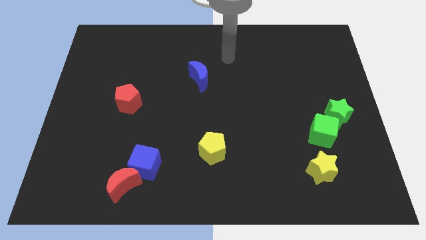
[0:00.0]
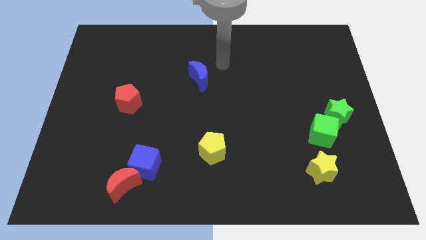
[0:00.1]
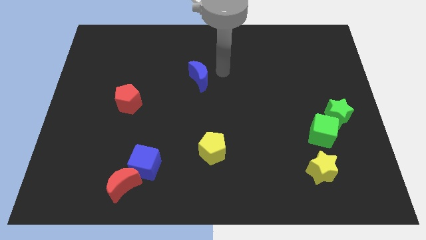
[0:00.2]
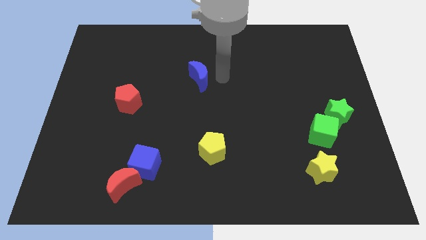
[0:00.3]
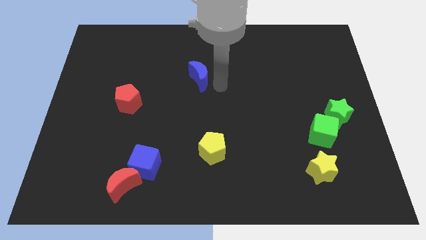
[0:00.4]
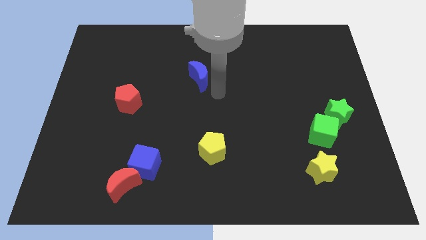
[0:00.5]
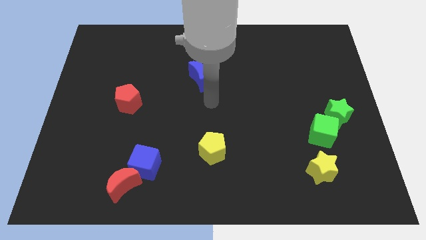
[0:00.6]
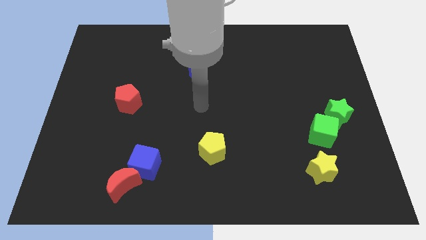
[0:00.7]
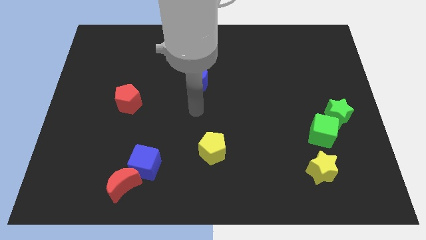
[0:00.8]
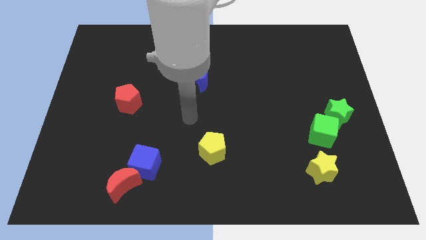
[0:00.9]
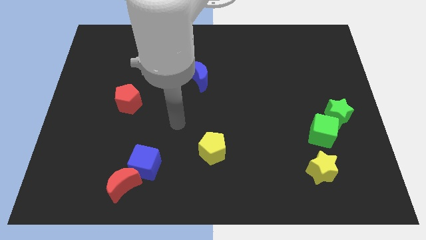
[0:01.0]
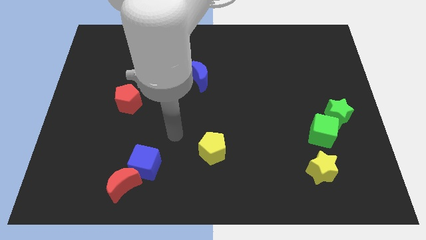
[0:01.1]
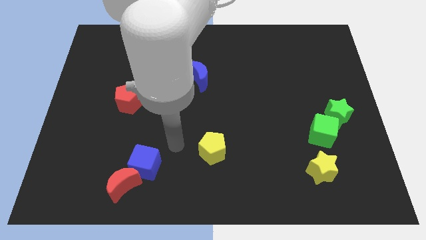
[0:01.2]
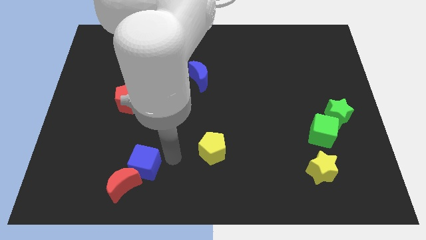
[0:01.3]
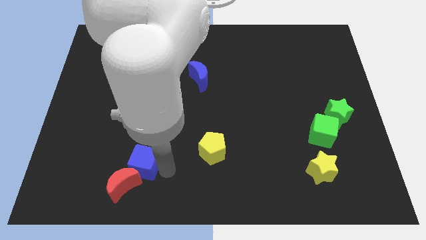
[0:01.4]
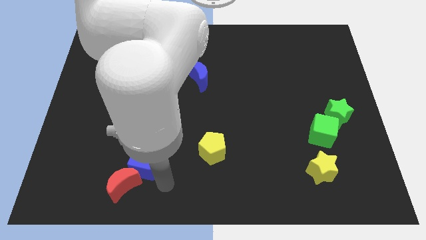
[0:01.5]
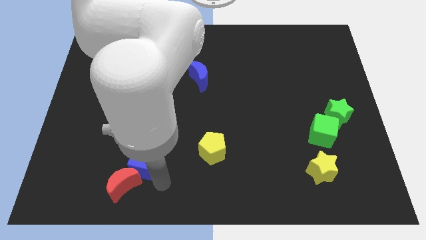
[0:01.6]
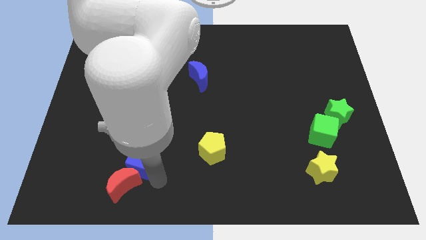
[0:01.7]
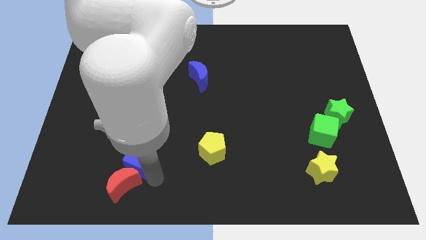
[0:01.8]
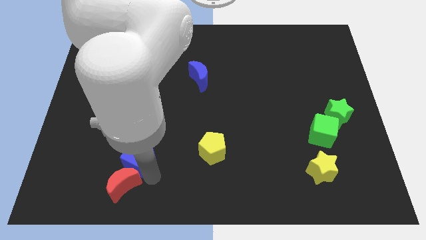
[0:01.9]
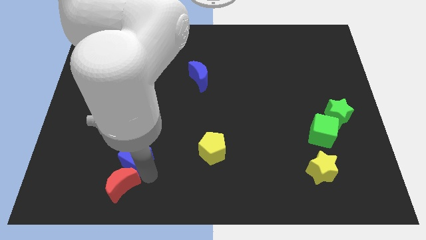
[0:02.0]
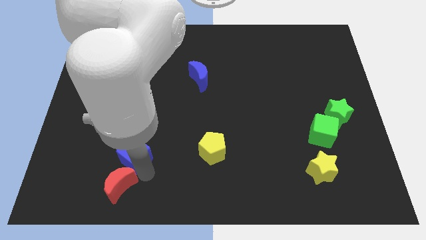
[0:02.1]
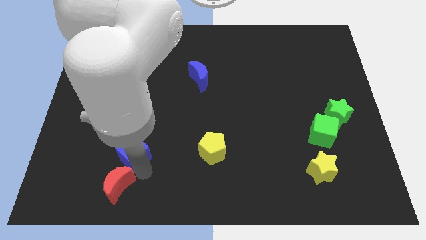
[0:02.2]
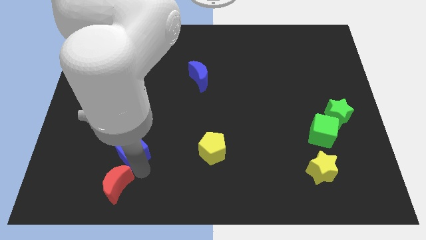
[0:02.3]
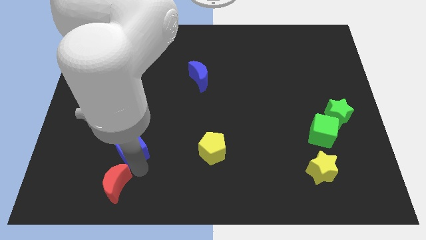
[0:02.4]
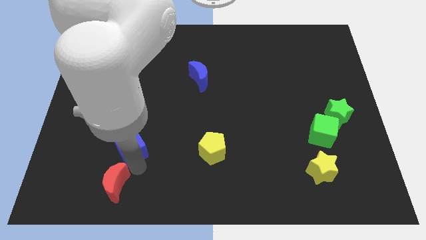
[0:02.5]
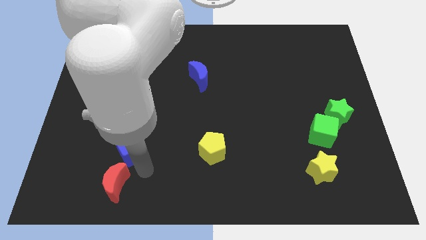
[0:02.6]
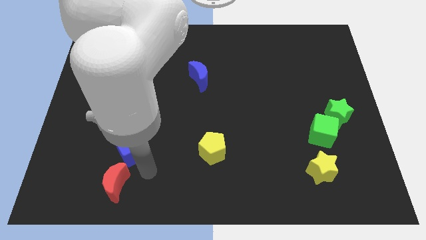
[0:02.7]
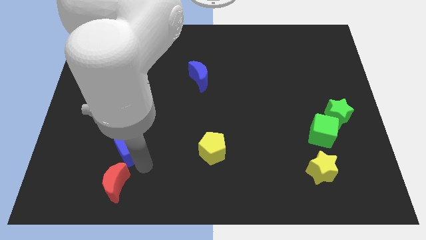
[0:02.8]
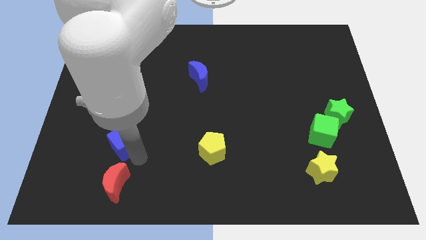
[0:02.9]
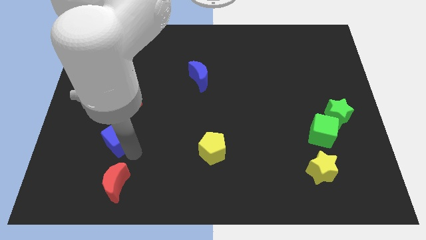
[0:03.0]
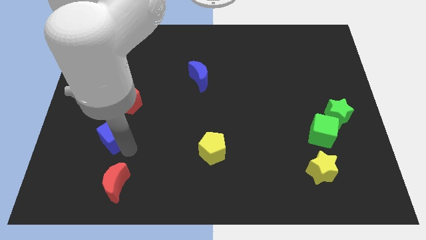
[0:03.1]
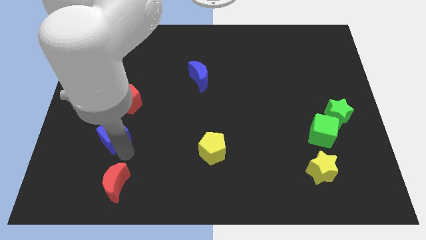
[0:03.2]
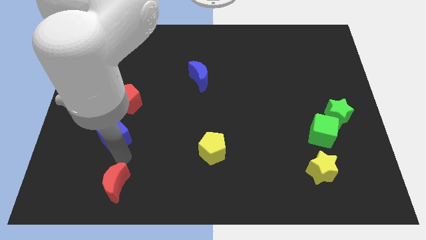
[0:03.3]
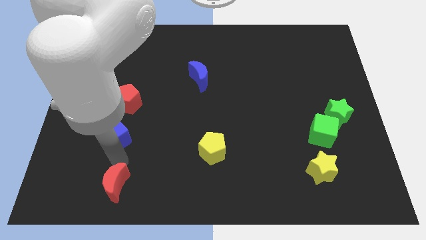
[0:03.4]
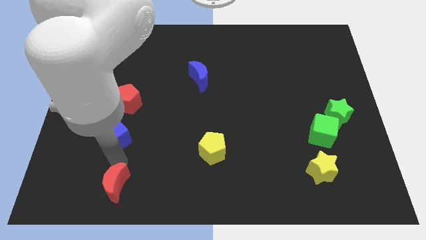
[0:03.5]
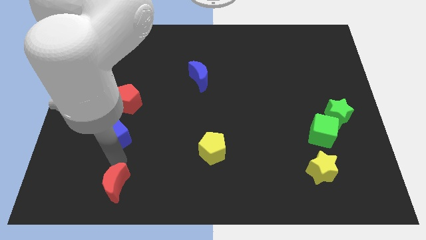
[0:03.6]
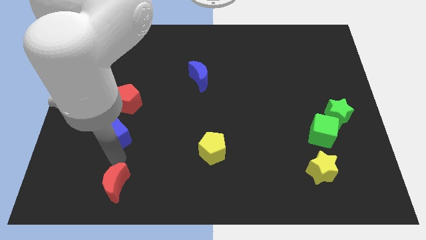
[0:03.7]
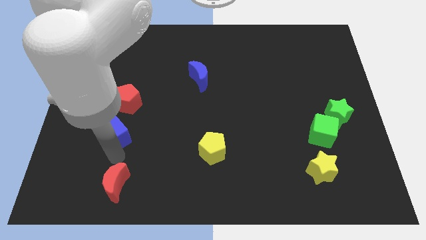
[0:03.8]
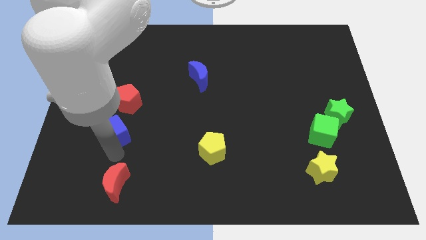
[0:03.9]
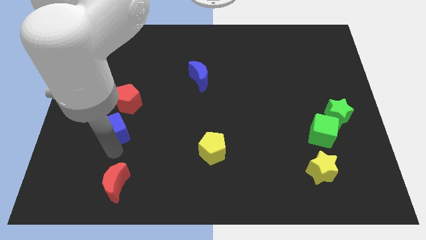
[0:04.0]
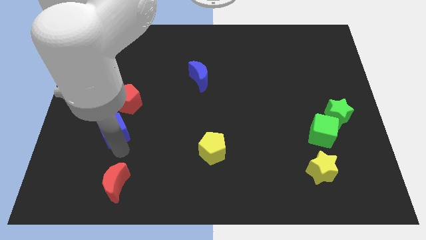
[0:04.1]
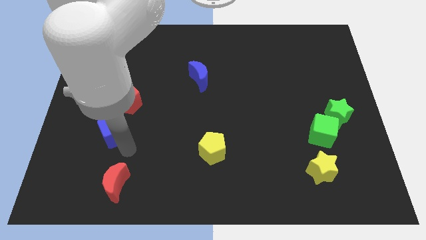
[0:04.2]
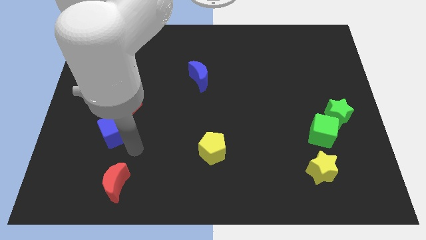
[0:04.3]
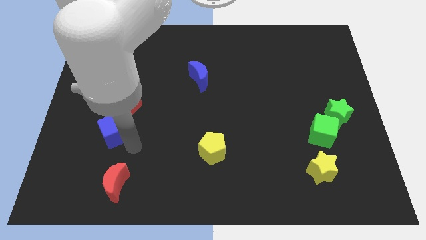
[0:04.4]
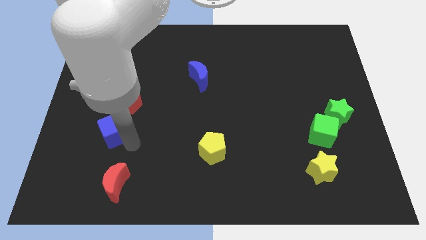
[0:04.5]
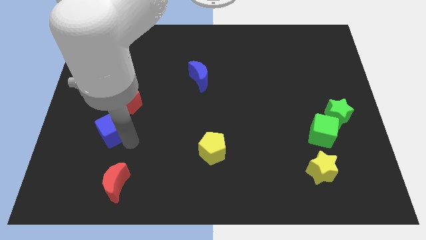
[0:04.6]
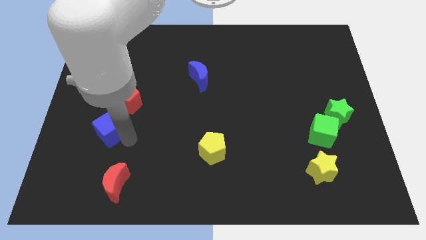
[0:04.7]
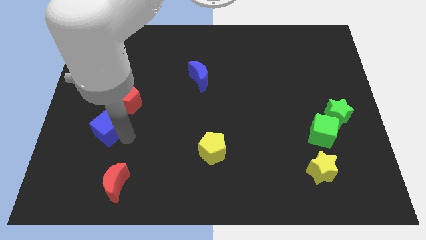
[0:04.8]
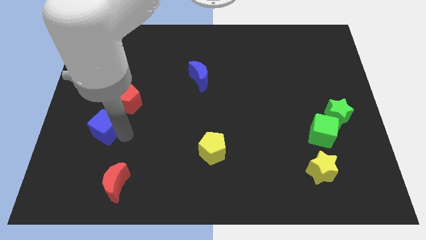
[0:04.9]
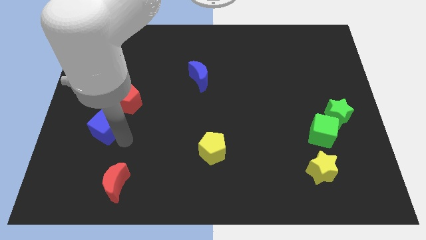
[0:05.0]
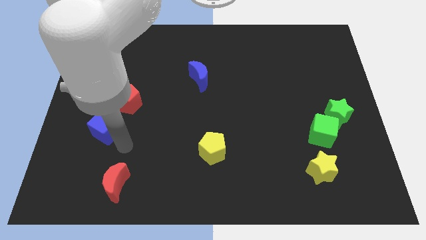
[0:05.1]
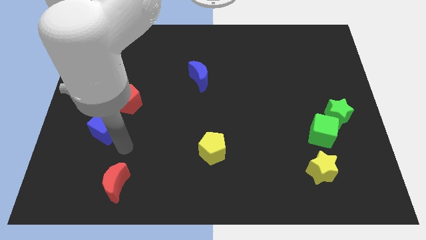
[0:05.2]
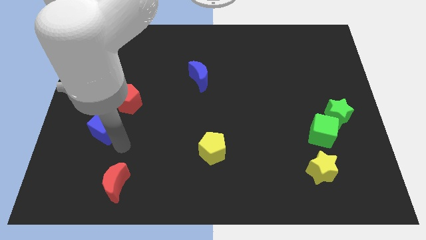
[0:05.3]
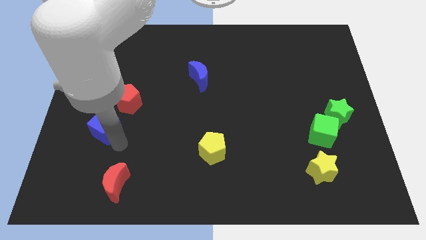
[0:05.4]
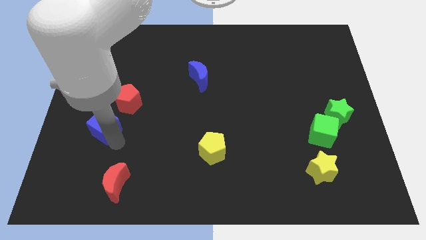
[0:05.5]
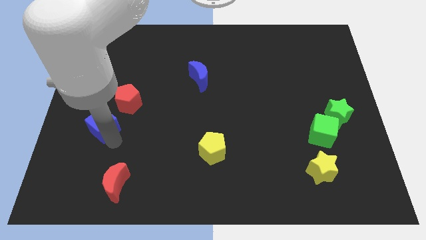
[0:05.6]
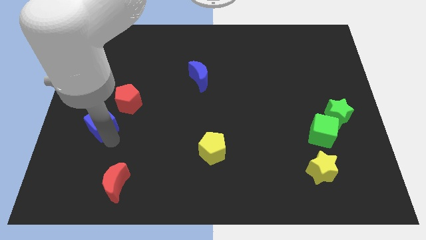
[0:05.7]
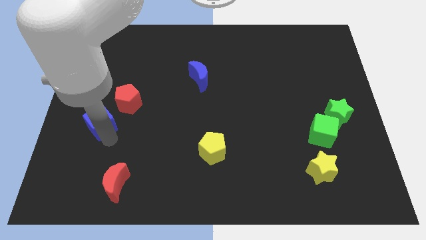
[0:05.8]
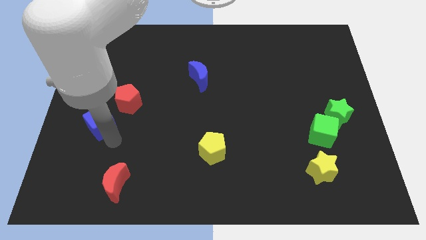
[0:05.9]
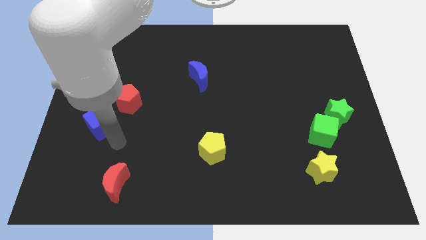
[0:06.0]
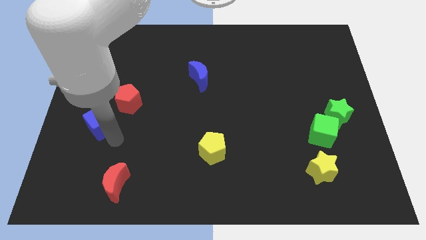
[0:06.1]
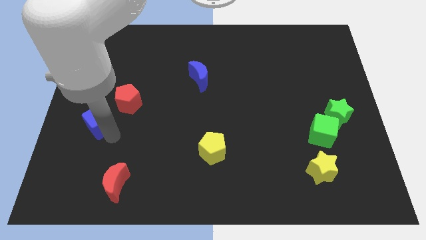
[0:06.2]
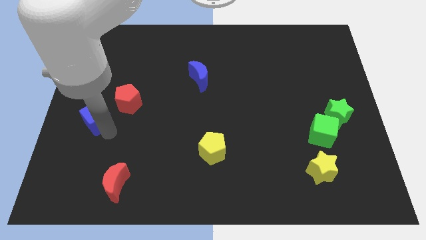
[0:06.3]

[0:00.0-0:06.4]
slide the blue cube to the left side

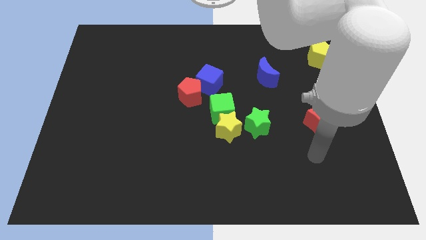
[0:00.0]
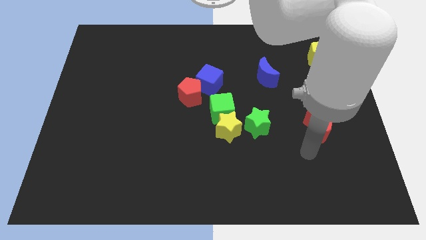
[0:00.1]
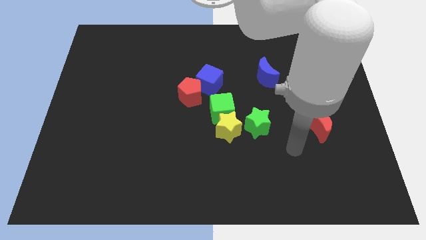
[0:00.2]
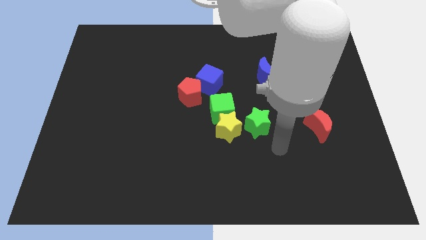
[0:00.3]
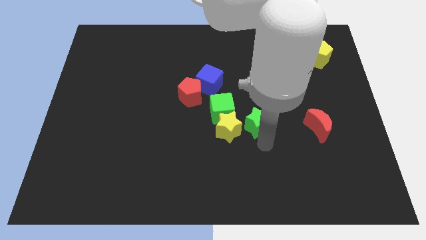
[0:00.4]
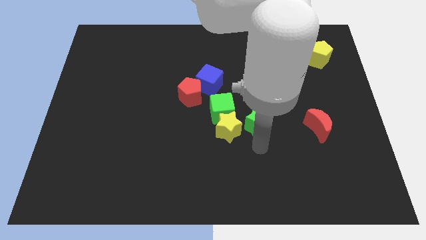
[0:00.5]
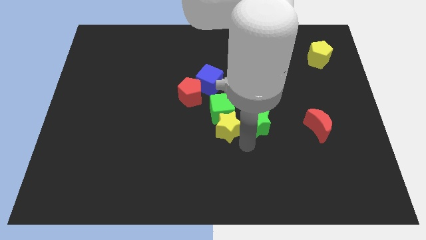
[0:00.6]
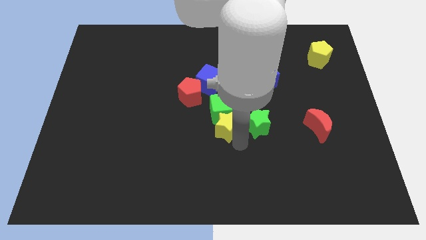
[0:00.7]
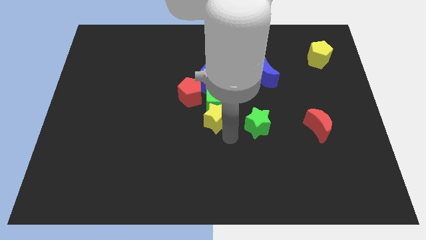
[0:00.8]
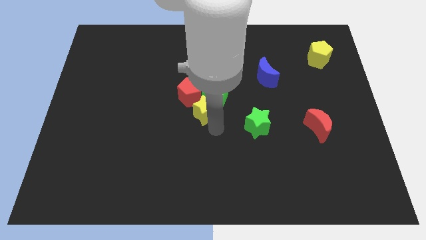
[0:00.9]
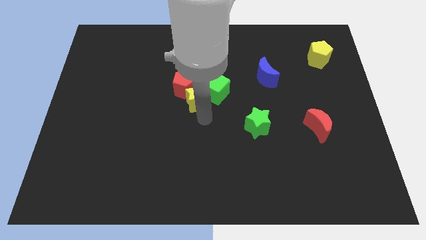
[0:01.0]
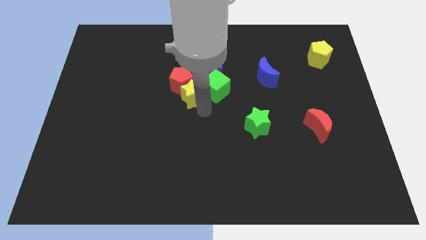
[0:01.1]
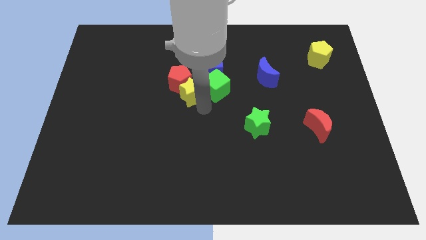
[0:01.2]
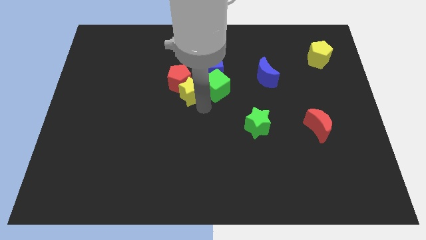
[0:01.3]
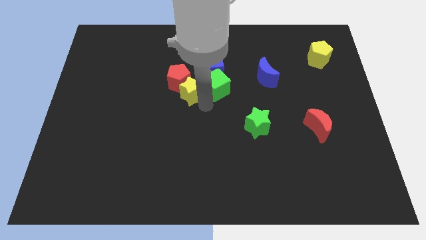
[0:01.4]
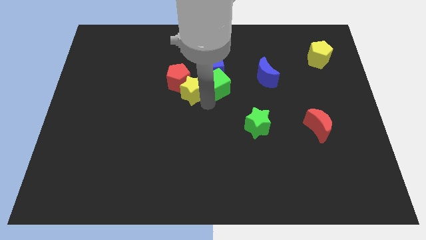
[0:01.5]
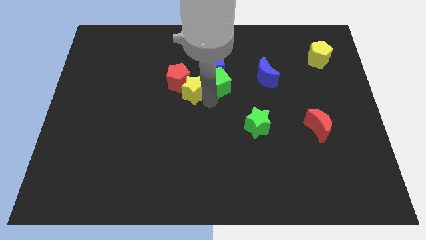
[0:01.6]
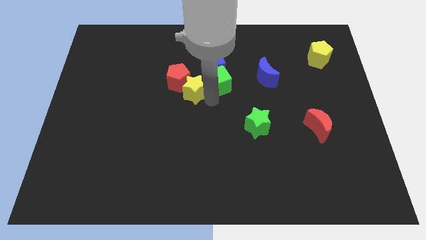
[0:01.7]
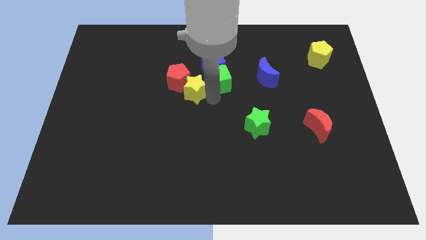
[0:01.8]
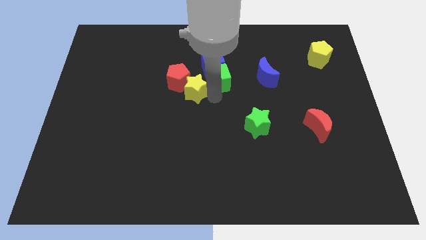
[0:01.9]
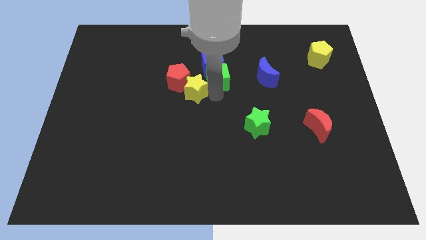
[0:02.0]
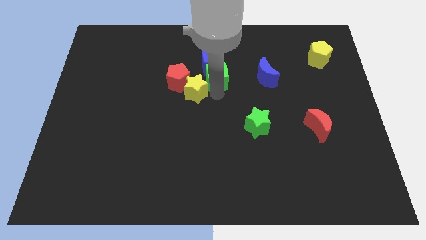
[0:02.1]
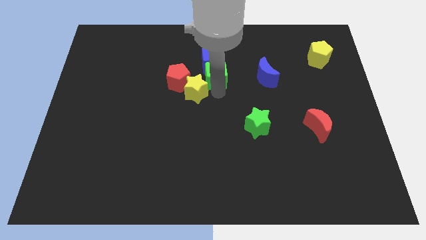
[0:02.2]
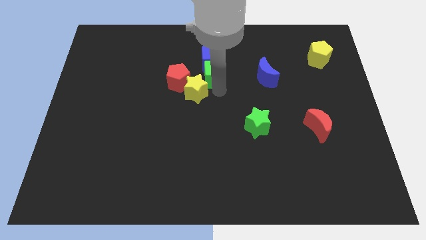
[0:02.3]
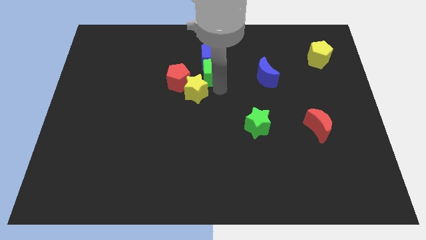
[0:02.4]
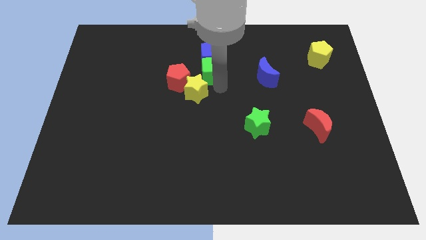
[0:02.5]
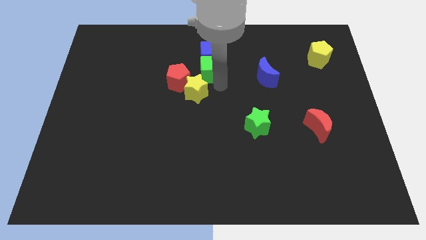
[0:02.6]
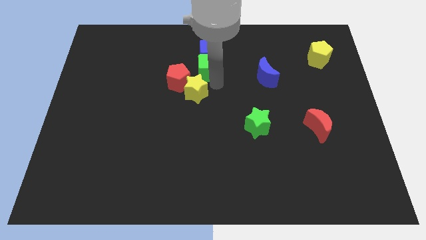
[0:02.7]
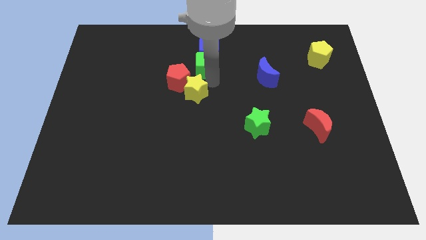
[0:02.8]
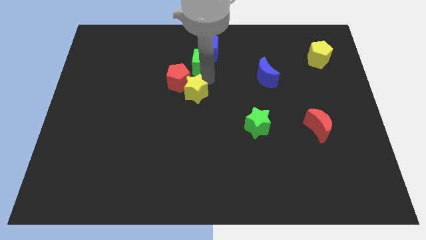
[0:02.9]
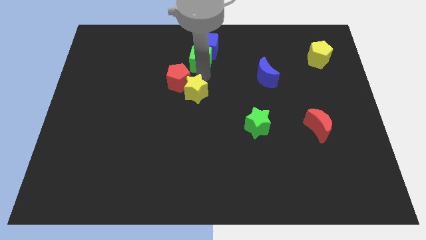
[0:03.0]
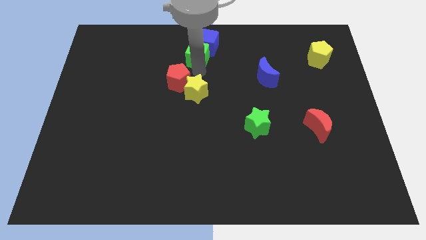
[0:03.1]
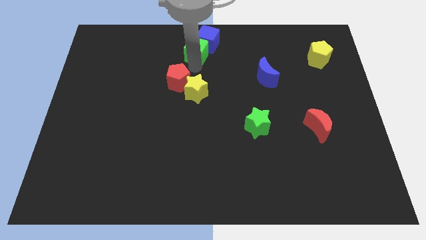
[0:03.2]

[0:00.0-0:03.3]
move the green cube to the top side
